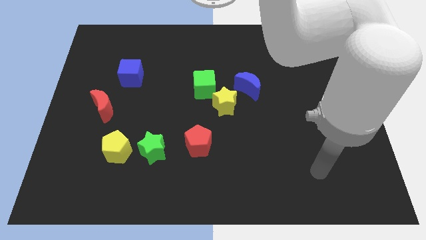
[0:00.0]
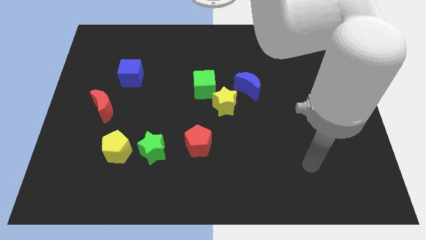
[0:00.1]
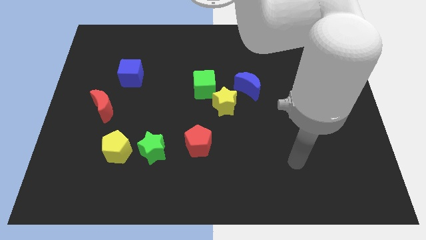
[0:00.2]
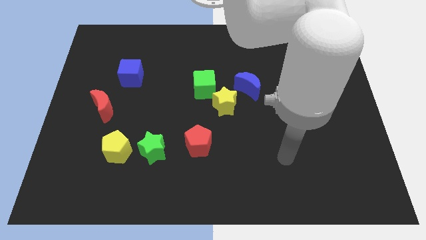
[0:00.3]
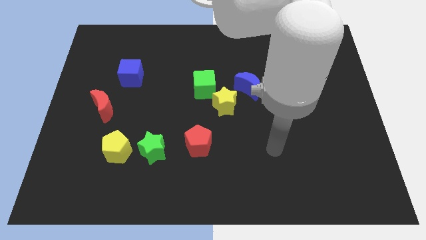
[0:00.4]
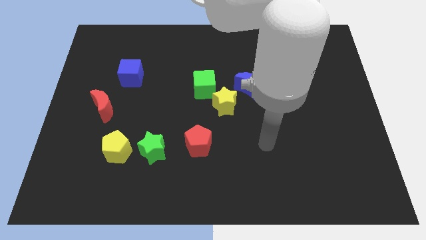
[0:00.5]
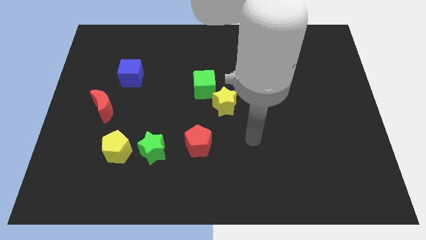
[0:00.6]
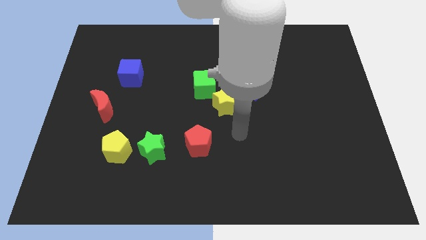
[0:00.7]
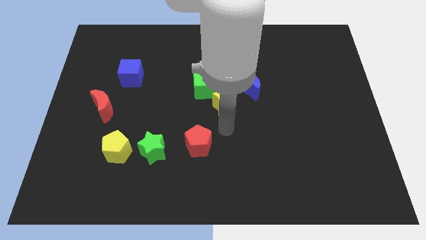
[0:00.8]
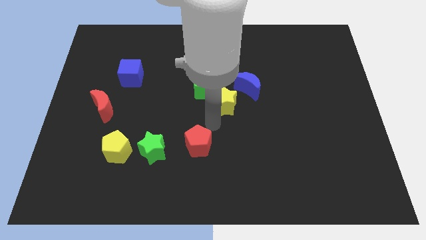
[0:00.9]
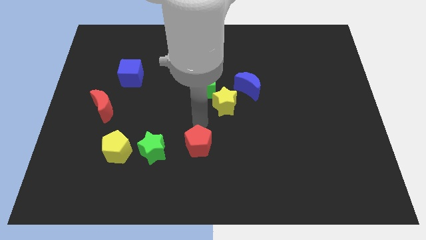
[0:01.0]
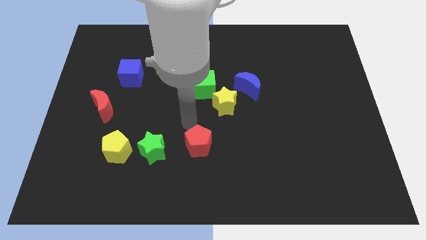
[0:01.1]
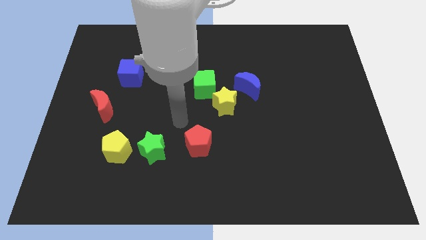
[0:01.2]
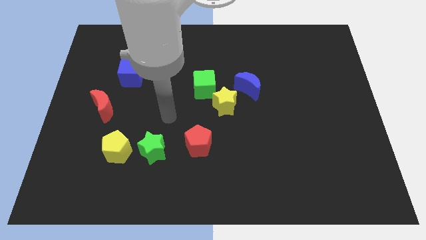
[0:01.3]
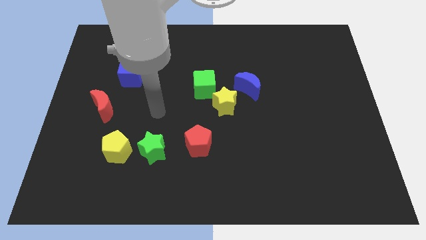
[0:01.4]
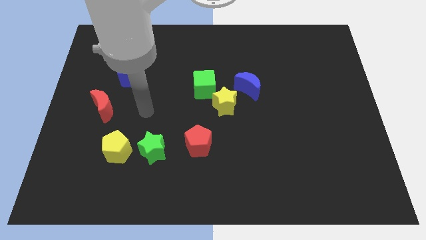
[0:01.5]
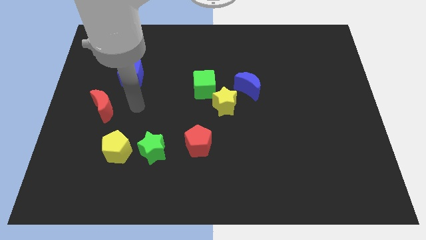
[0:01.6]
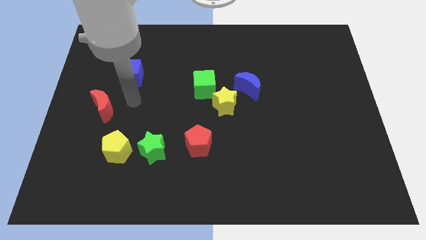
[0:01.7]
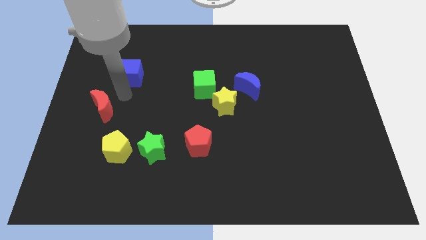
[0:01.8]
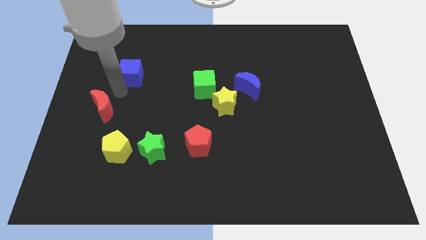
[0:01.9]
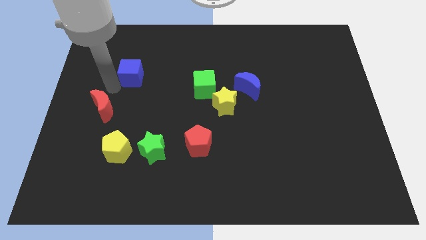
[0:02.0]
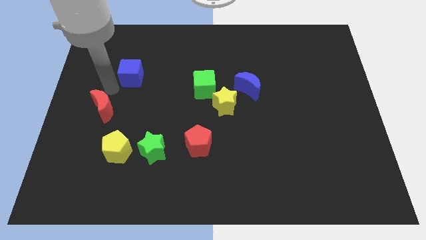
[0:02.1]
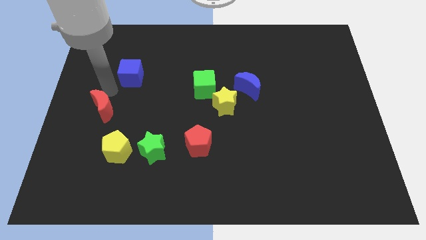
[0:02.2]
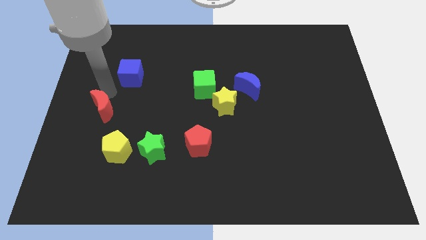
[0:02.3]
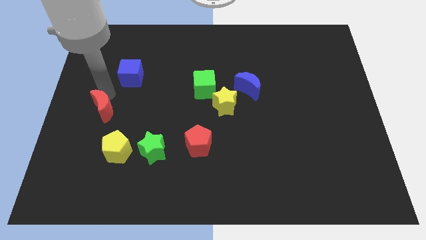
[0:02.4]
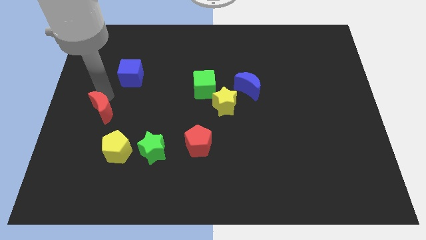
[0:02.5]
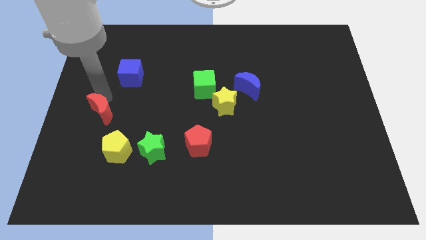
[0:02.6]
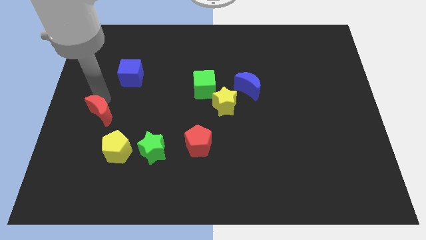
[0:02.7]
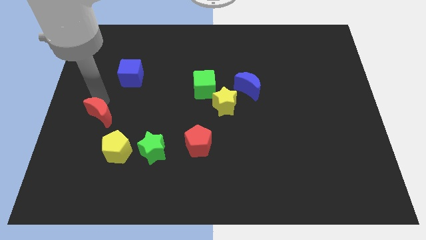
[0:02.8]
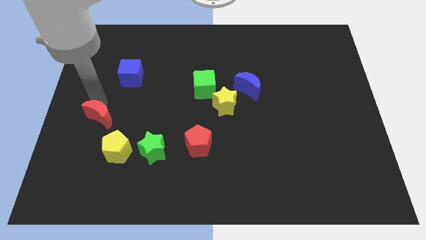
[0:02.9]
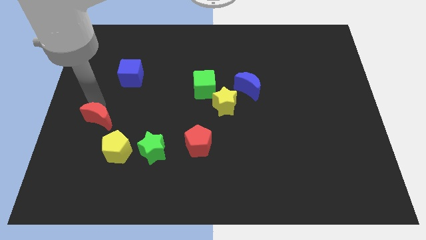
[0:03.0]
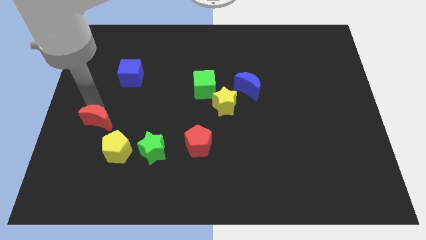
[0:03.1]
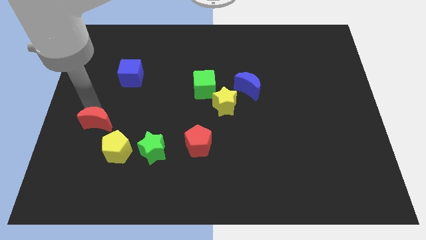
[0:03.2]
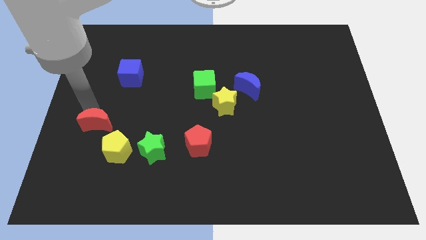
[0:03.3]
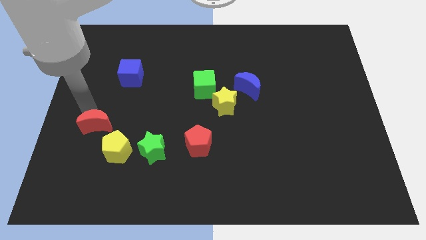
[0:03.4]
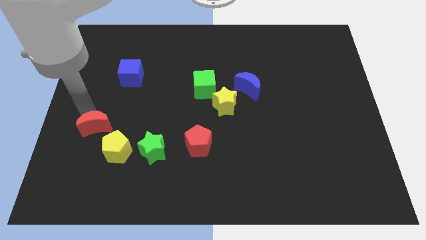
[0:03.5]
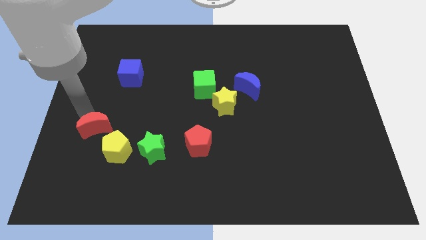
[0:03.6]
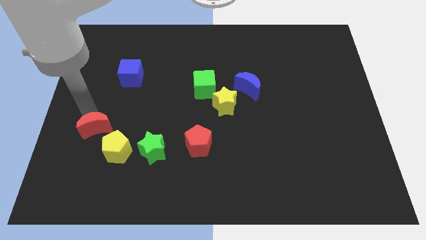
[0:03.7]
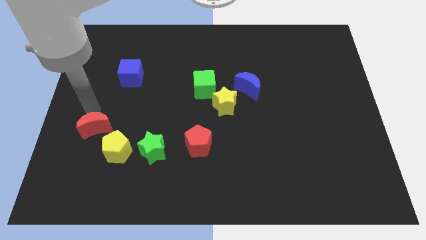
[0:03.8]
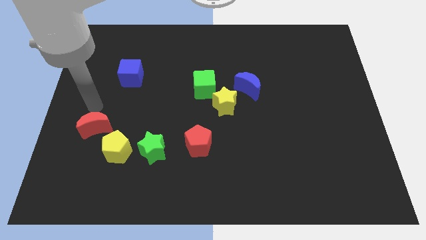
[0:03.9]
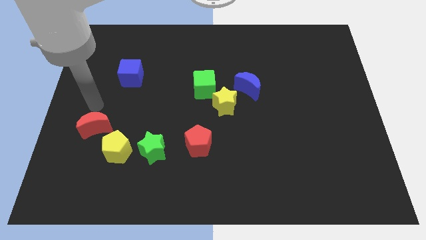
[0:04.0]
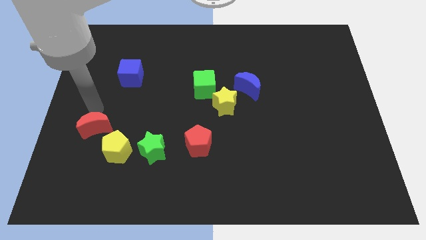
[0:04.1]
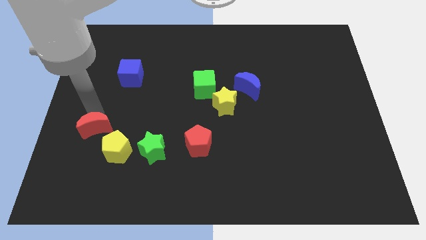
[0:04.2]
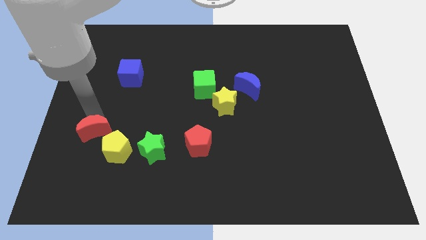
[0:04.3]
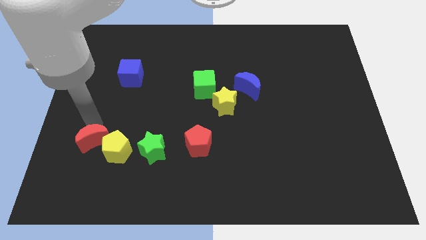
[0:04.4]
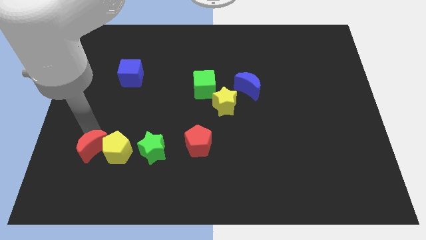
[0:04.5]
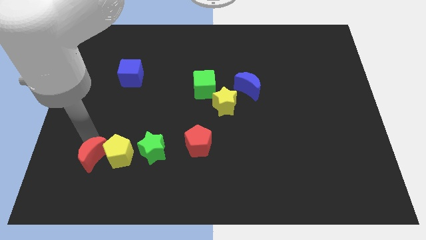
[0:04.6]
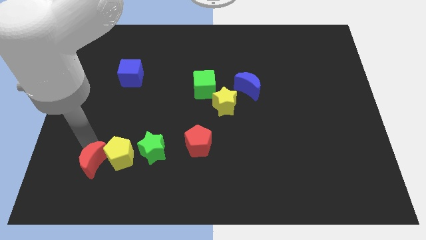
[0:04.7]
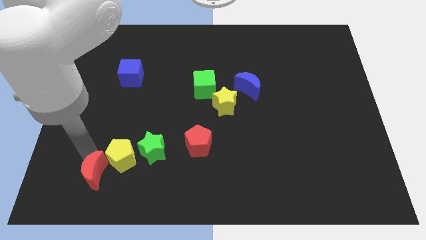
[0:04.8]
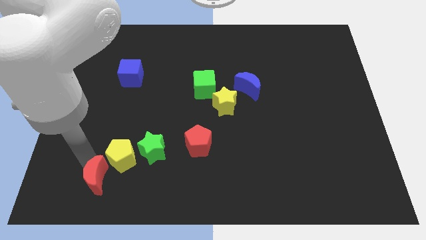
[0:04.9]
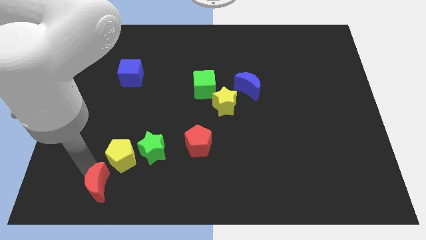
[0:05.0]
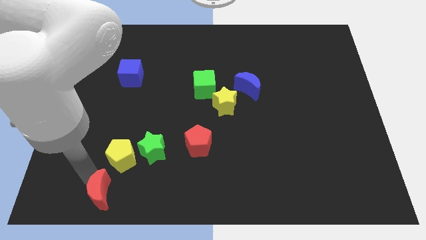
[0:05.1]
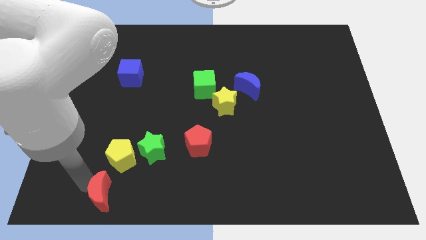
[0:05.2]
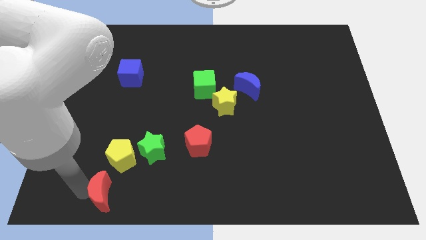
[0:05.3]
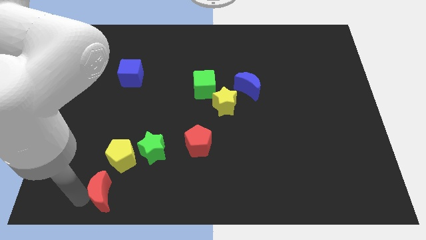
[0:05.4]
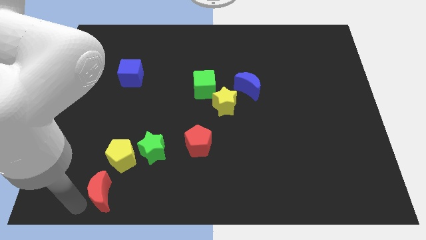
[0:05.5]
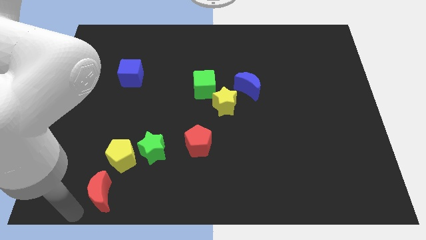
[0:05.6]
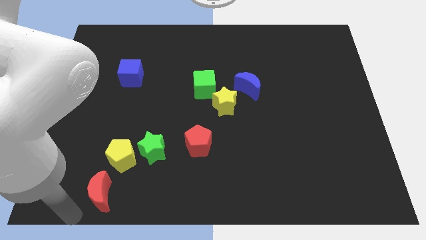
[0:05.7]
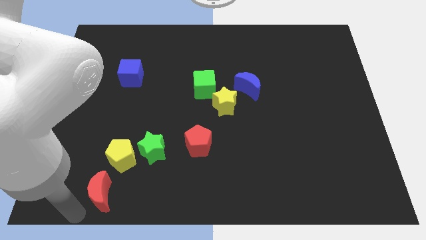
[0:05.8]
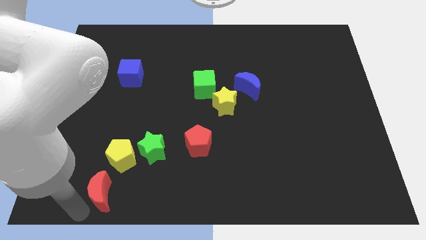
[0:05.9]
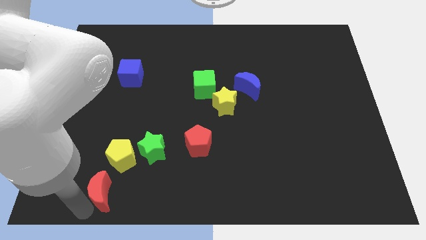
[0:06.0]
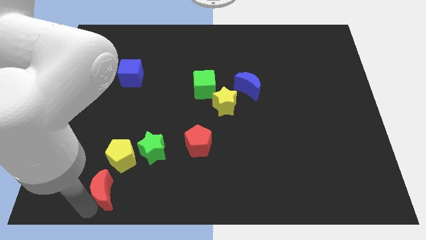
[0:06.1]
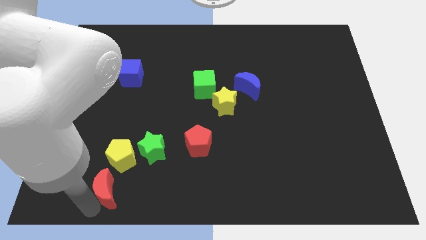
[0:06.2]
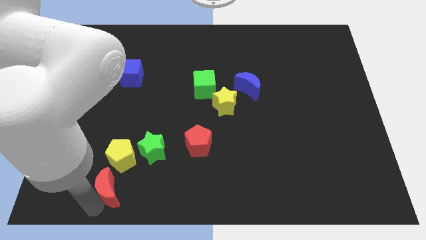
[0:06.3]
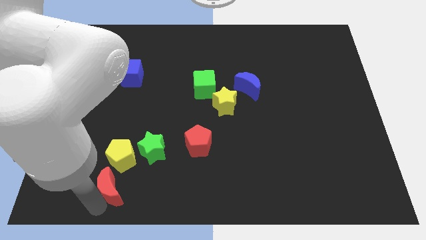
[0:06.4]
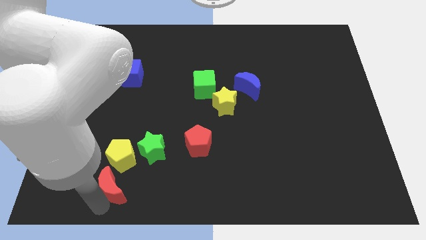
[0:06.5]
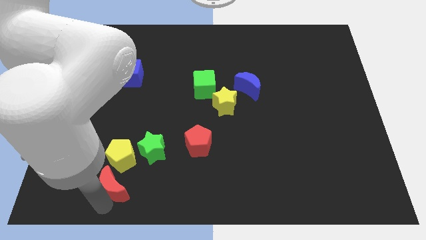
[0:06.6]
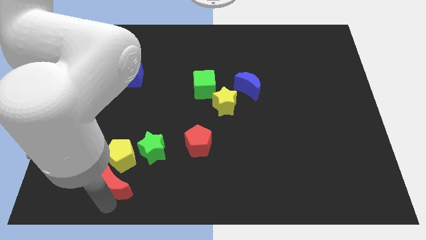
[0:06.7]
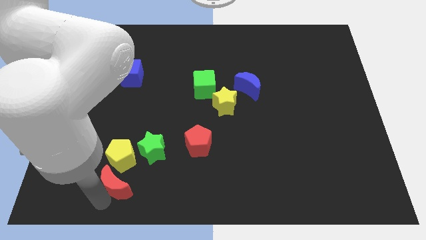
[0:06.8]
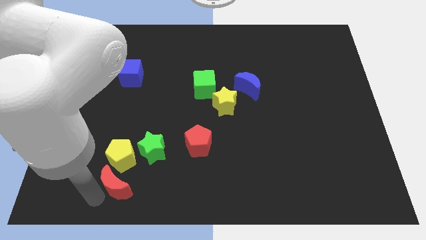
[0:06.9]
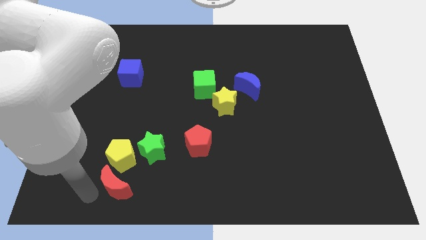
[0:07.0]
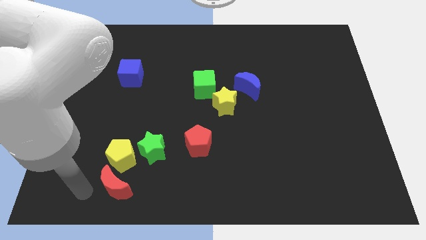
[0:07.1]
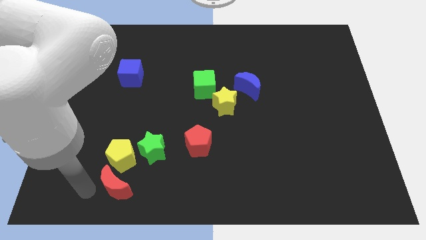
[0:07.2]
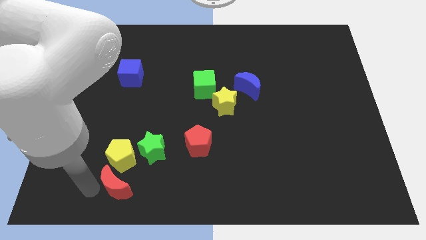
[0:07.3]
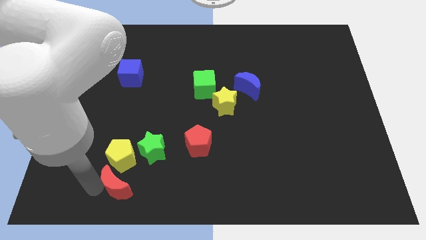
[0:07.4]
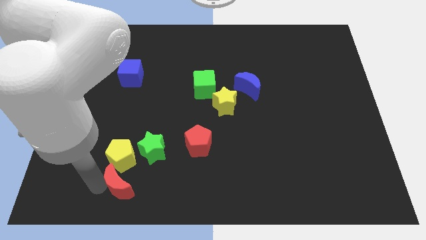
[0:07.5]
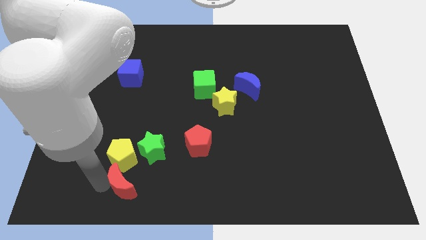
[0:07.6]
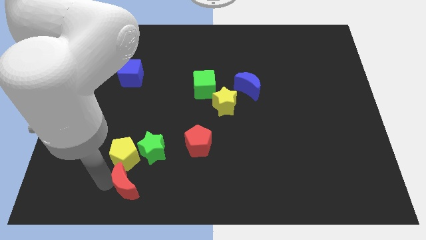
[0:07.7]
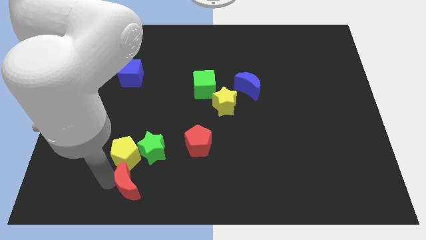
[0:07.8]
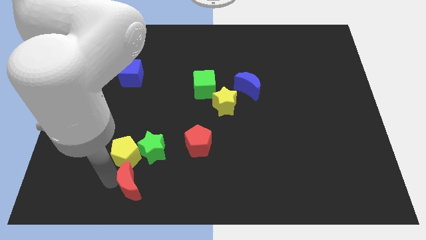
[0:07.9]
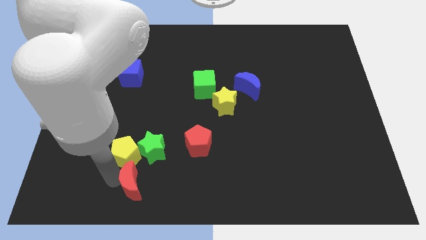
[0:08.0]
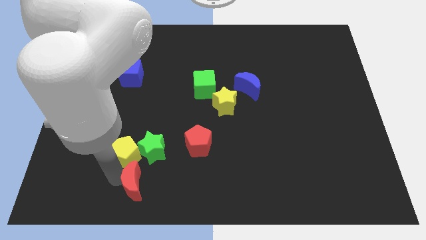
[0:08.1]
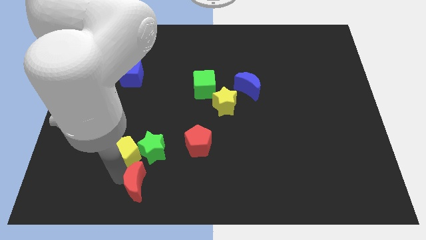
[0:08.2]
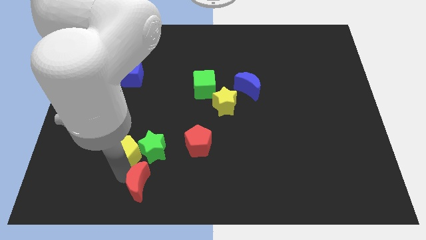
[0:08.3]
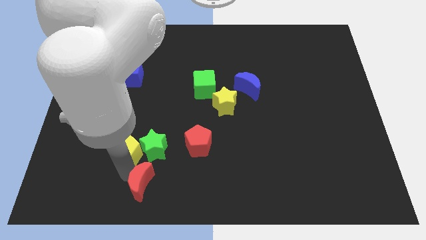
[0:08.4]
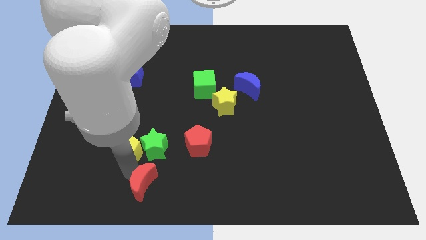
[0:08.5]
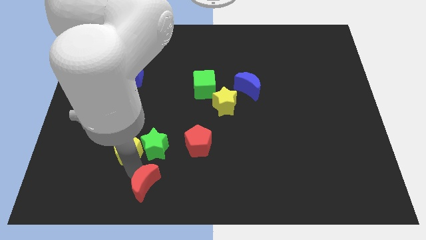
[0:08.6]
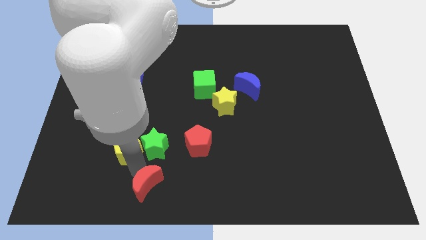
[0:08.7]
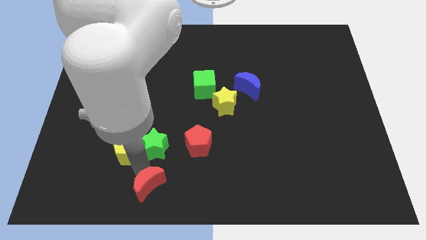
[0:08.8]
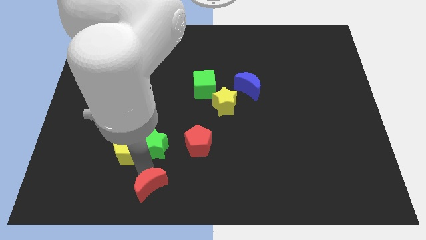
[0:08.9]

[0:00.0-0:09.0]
move the red moon to the bottom
